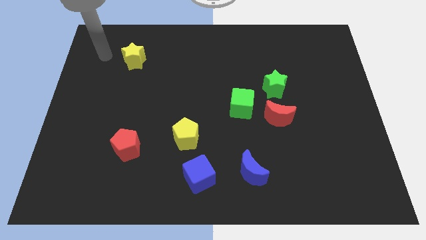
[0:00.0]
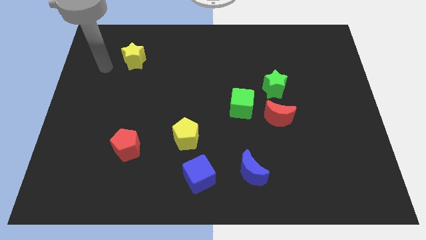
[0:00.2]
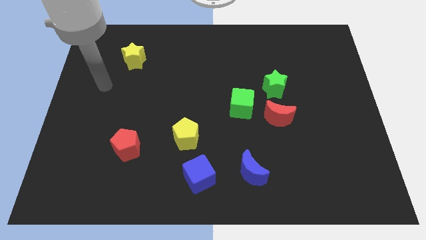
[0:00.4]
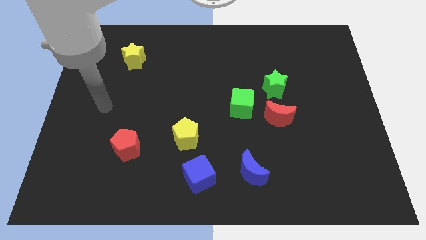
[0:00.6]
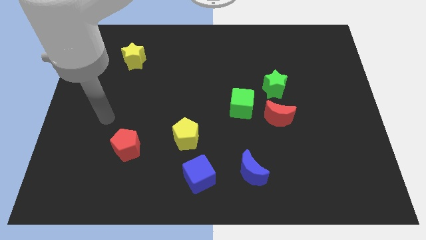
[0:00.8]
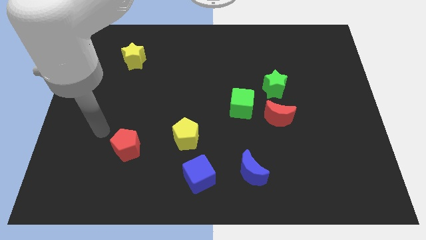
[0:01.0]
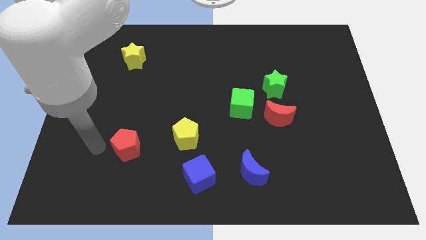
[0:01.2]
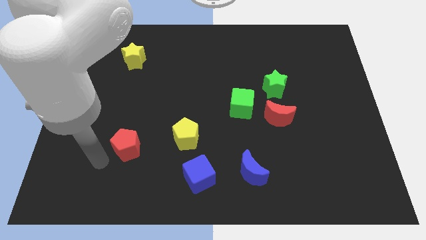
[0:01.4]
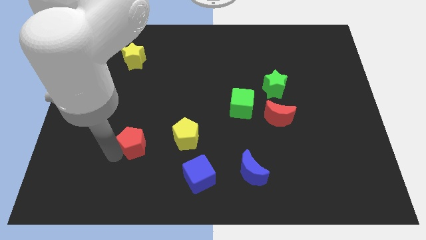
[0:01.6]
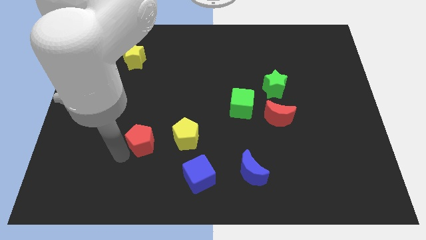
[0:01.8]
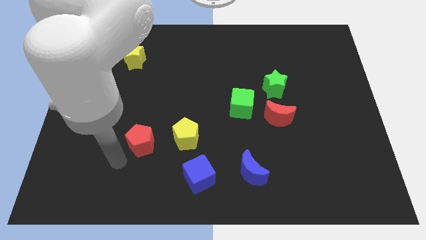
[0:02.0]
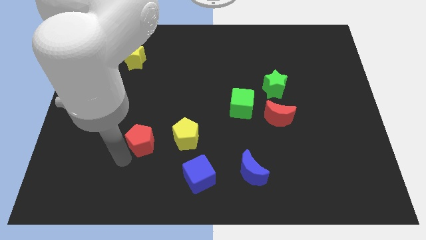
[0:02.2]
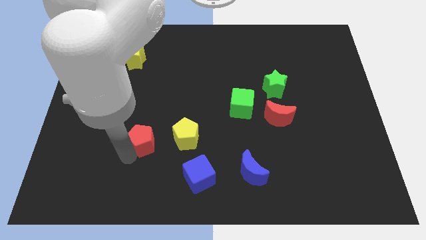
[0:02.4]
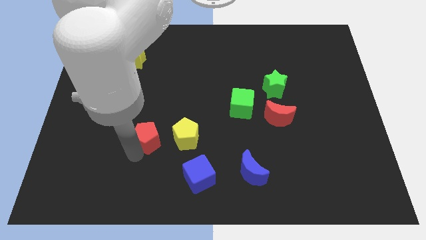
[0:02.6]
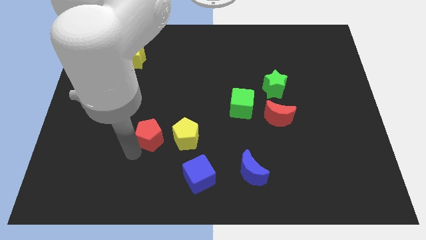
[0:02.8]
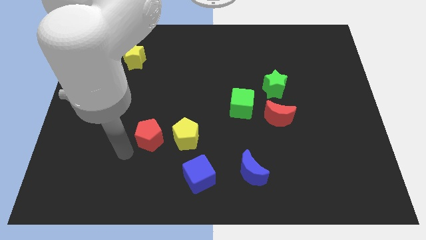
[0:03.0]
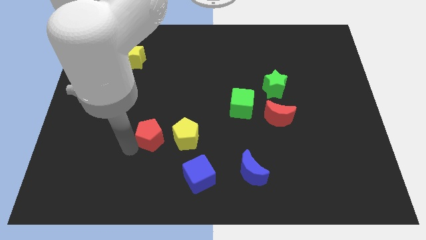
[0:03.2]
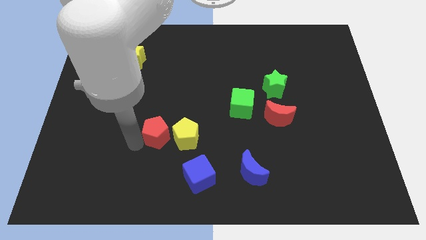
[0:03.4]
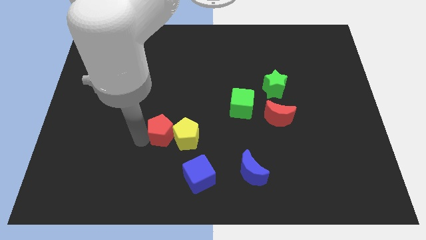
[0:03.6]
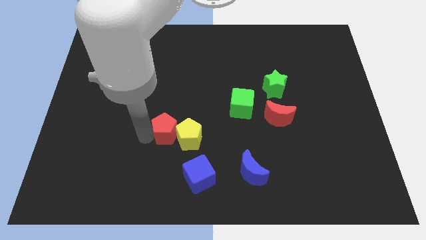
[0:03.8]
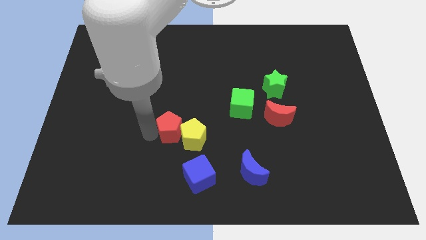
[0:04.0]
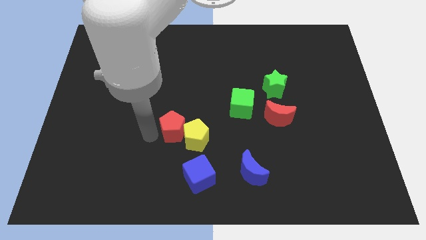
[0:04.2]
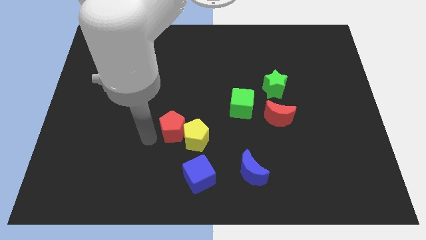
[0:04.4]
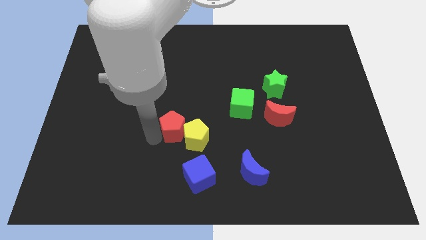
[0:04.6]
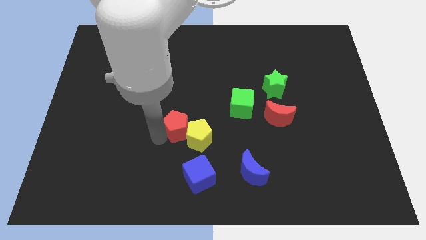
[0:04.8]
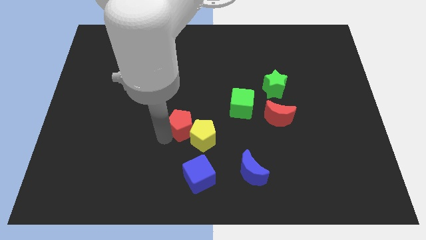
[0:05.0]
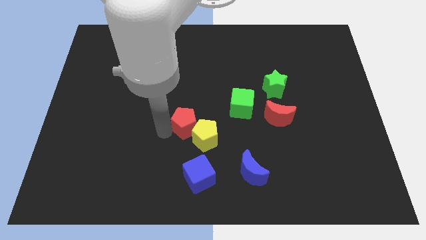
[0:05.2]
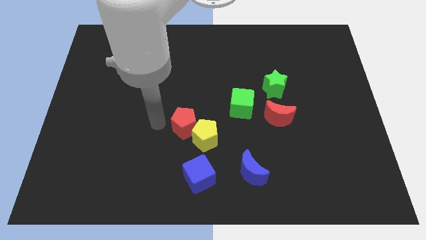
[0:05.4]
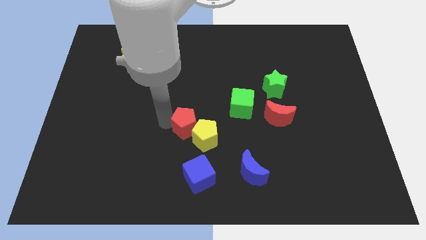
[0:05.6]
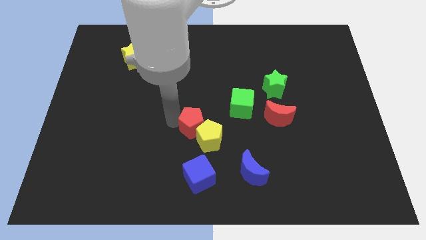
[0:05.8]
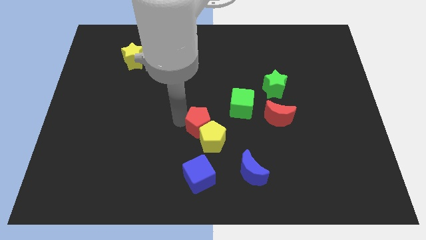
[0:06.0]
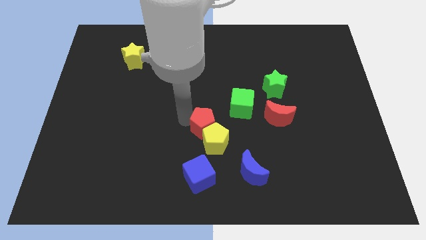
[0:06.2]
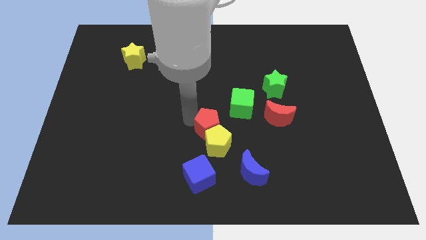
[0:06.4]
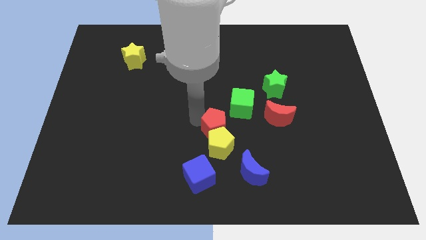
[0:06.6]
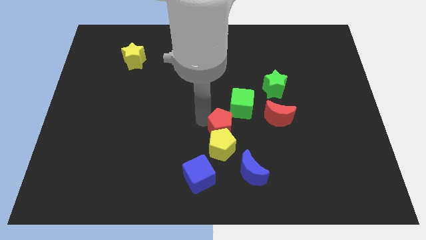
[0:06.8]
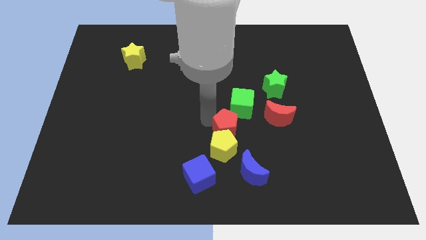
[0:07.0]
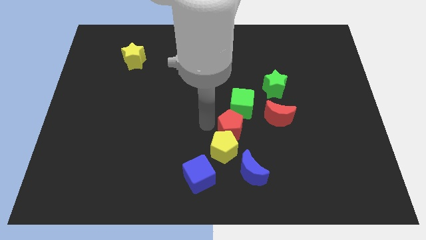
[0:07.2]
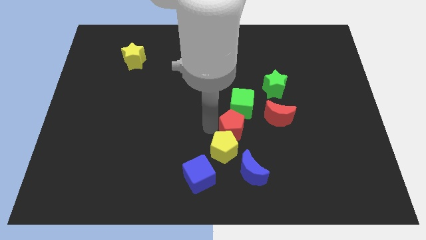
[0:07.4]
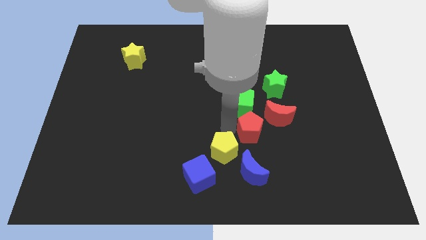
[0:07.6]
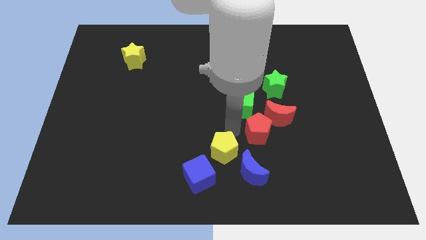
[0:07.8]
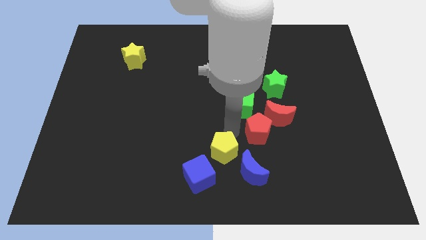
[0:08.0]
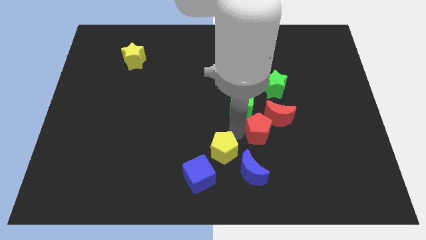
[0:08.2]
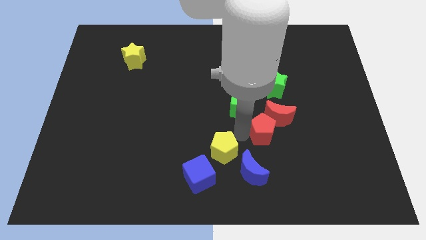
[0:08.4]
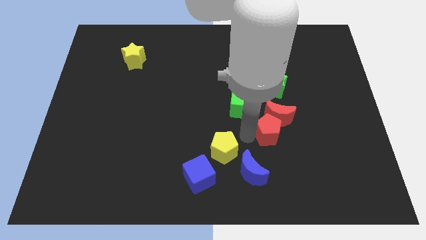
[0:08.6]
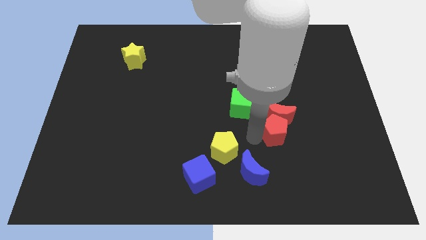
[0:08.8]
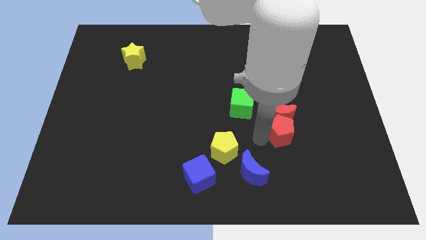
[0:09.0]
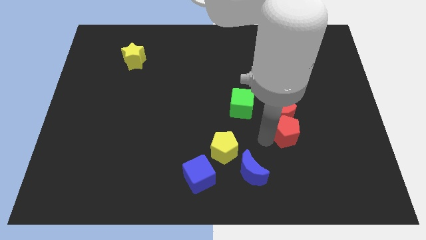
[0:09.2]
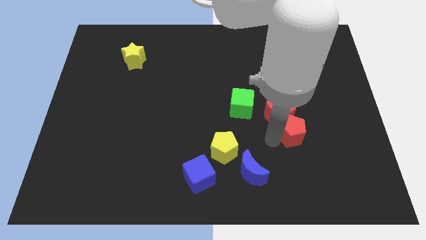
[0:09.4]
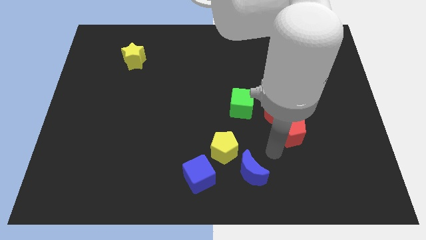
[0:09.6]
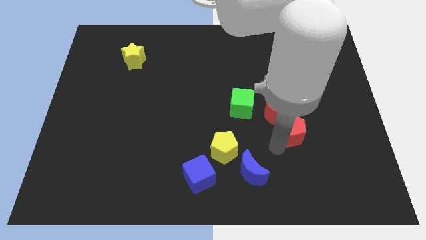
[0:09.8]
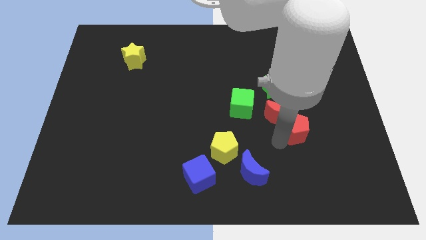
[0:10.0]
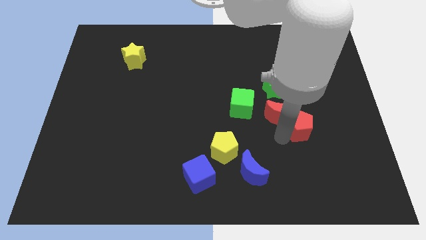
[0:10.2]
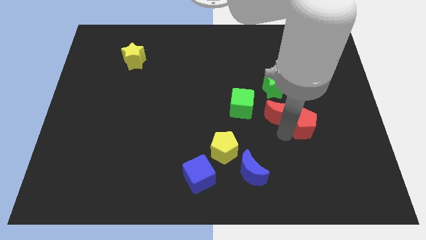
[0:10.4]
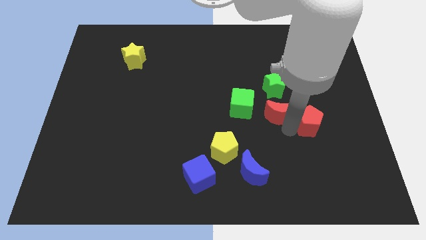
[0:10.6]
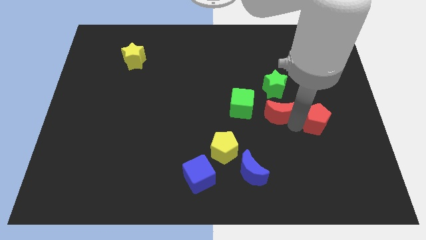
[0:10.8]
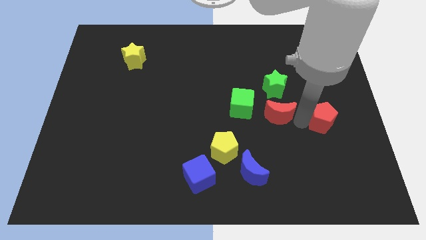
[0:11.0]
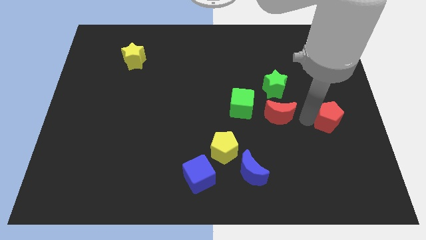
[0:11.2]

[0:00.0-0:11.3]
move the red pentagon to the right side

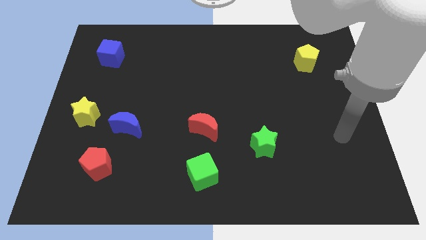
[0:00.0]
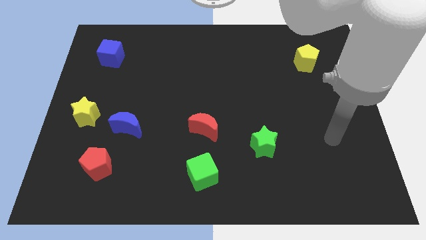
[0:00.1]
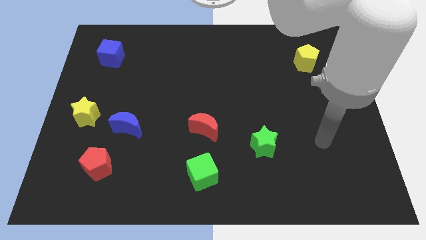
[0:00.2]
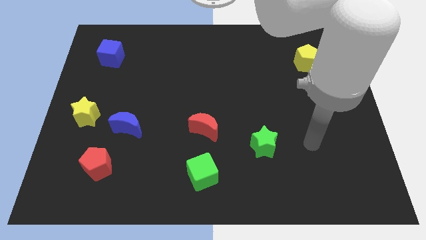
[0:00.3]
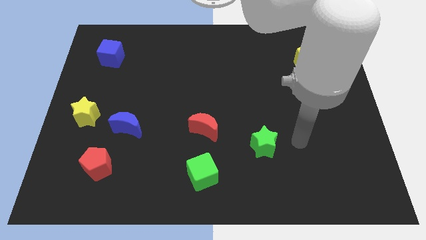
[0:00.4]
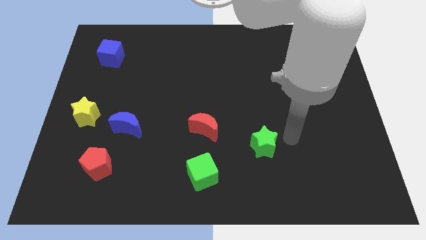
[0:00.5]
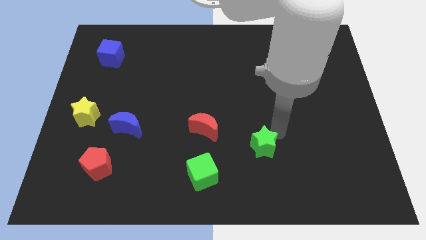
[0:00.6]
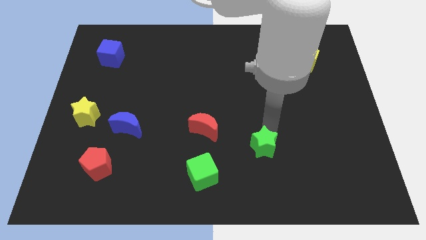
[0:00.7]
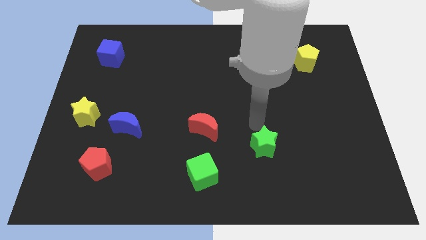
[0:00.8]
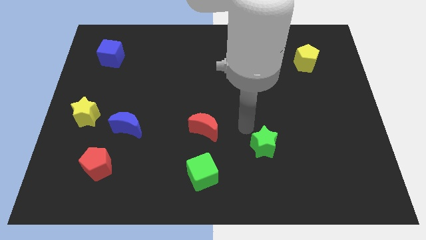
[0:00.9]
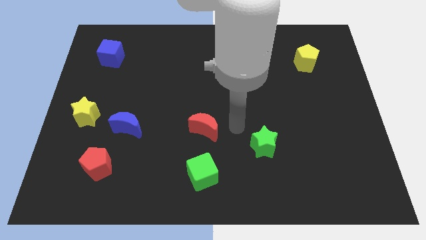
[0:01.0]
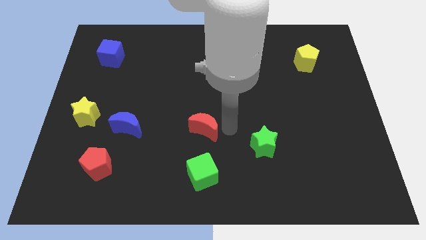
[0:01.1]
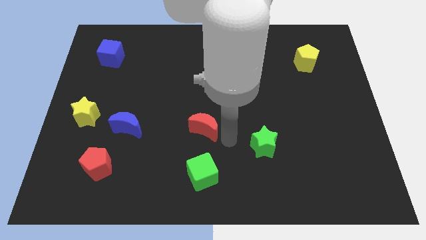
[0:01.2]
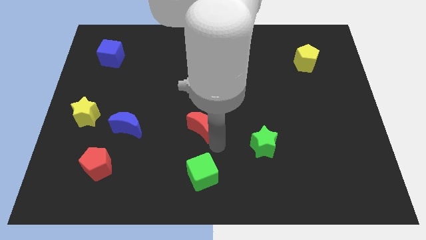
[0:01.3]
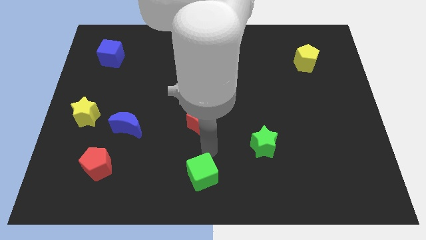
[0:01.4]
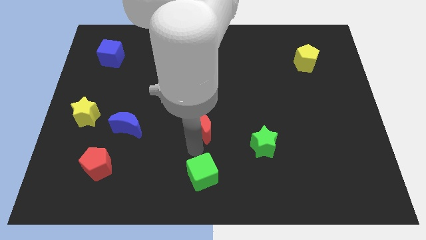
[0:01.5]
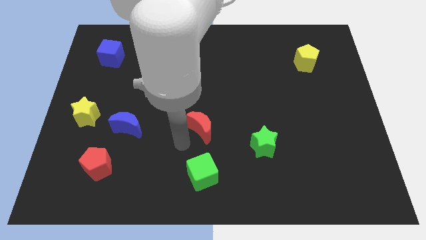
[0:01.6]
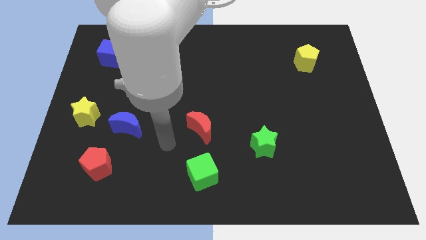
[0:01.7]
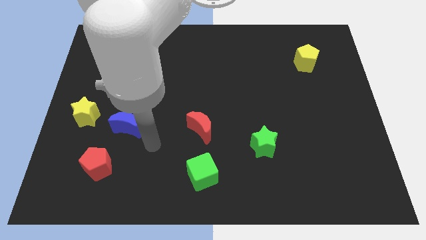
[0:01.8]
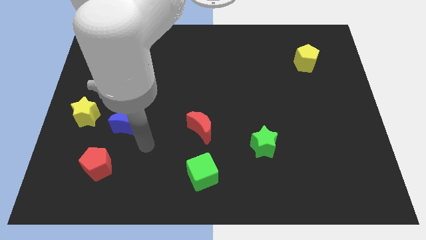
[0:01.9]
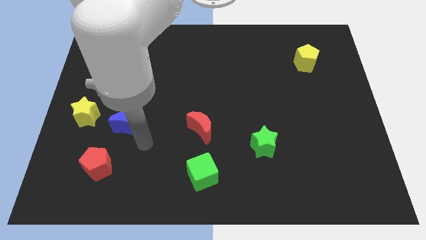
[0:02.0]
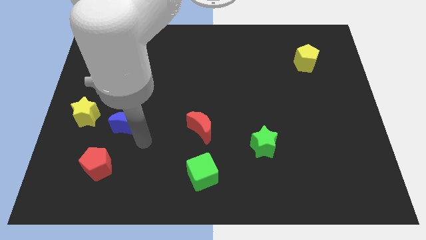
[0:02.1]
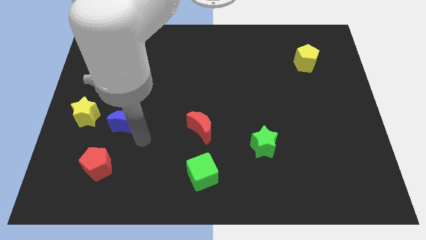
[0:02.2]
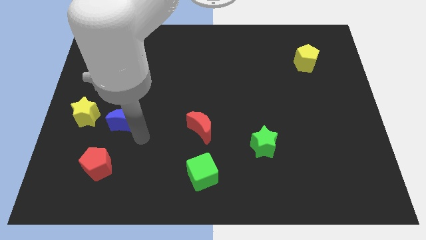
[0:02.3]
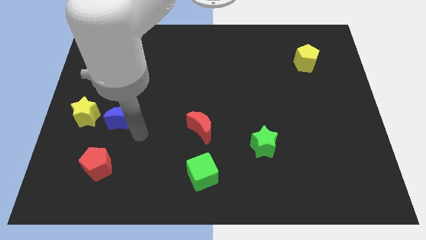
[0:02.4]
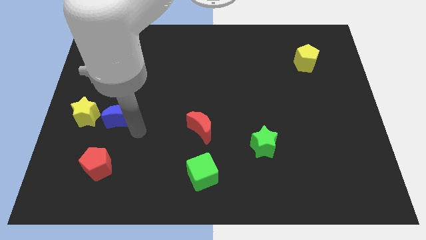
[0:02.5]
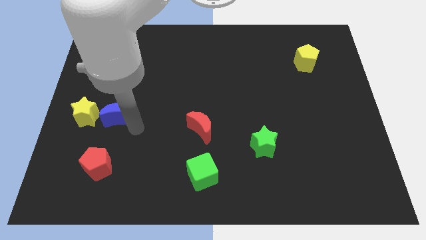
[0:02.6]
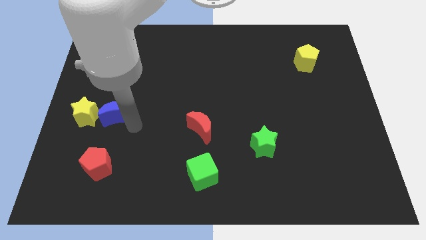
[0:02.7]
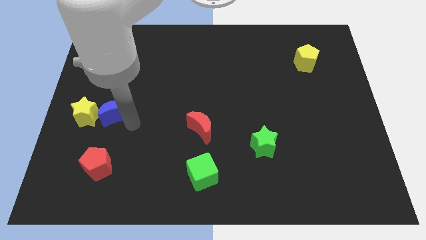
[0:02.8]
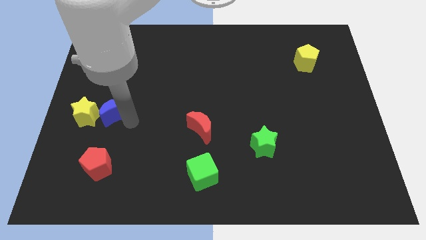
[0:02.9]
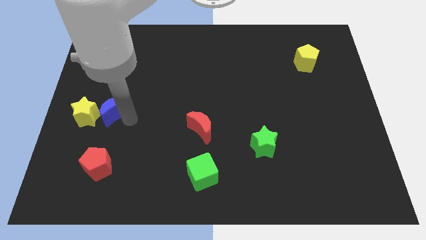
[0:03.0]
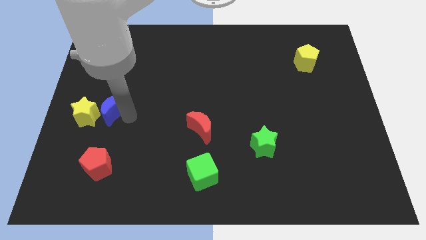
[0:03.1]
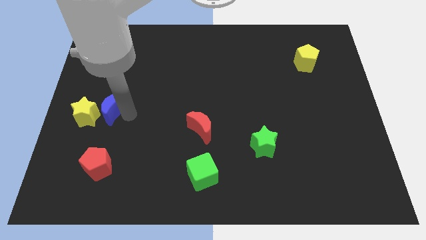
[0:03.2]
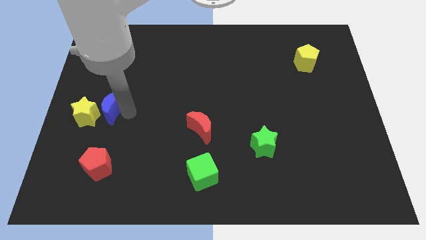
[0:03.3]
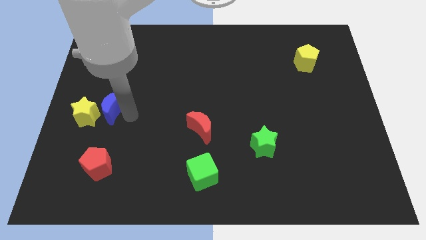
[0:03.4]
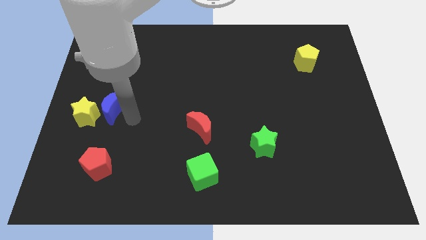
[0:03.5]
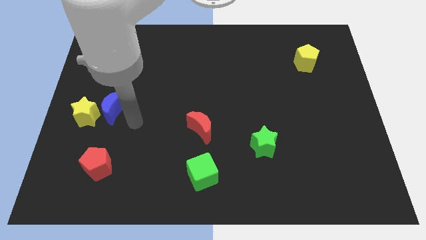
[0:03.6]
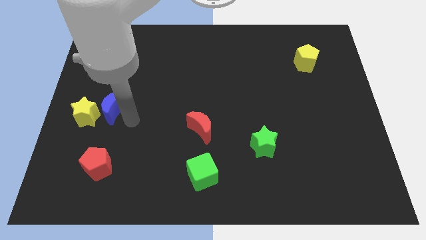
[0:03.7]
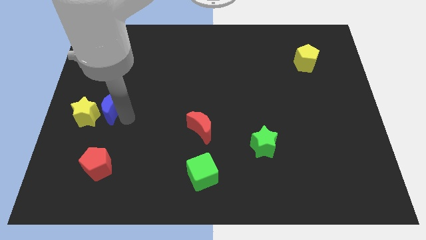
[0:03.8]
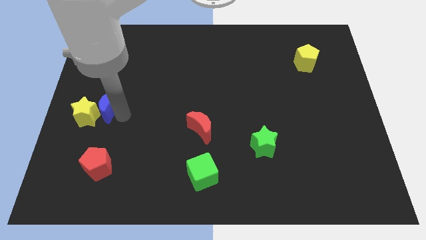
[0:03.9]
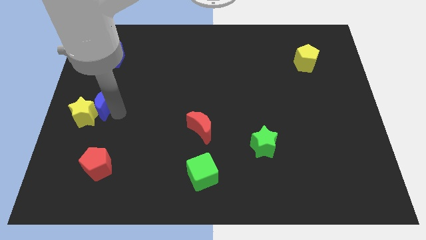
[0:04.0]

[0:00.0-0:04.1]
push the blue moon to the left side of the board
